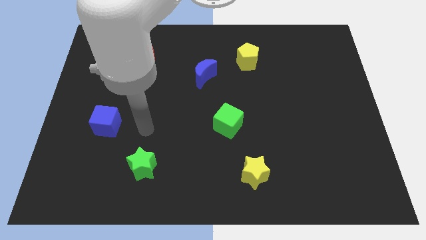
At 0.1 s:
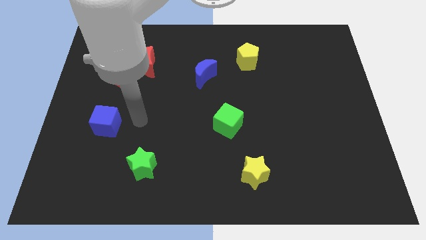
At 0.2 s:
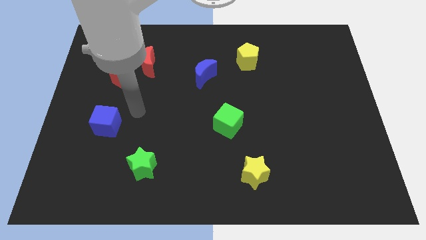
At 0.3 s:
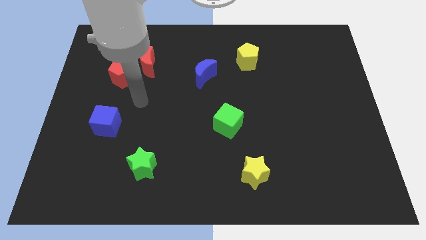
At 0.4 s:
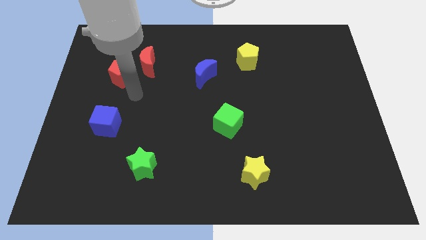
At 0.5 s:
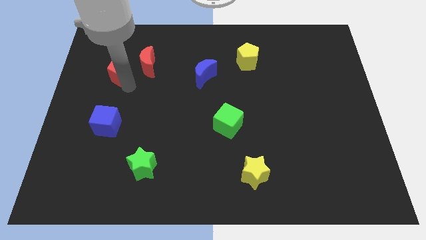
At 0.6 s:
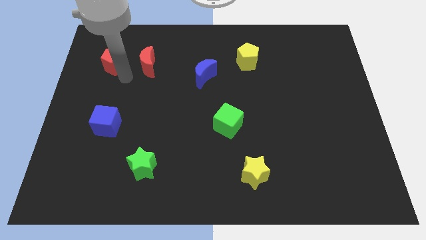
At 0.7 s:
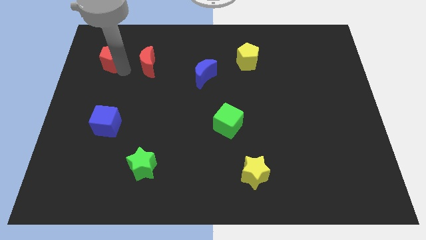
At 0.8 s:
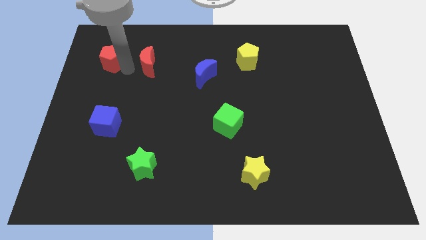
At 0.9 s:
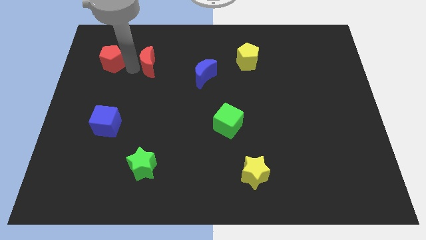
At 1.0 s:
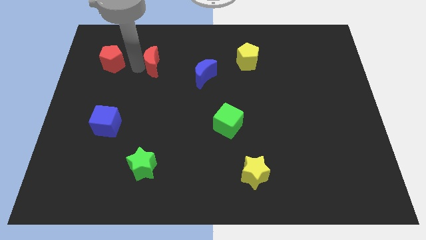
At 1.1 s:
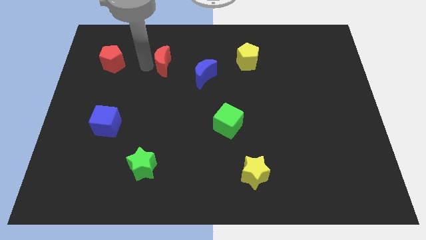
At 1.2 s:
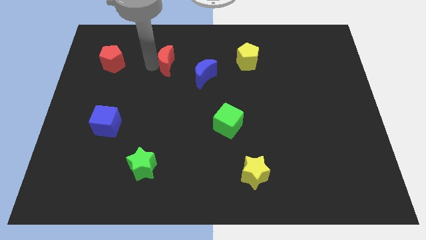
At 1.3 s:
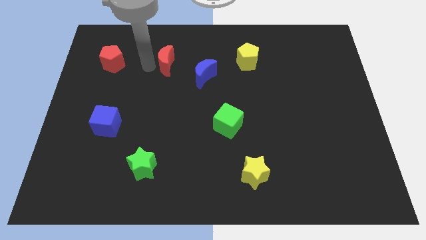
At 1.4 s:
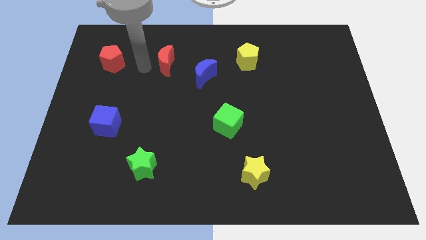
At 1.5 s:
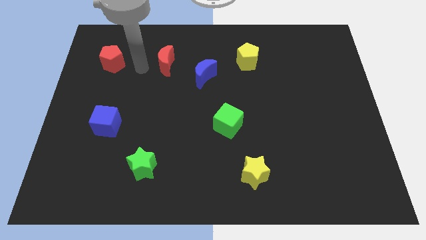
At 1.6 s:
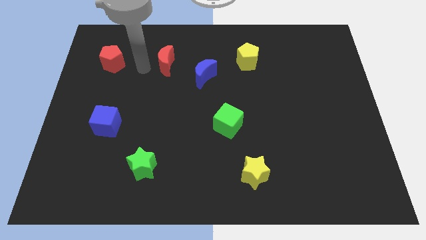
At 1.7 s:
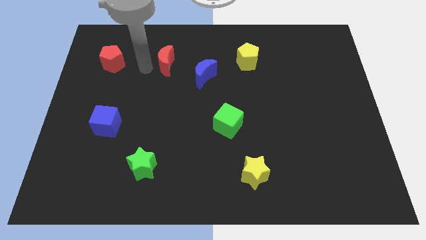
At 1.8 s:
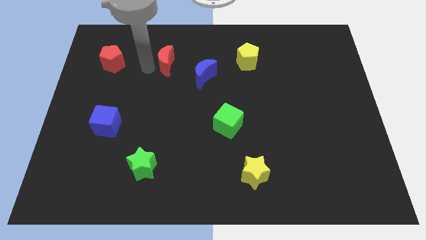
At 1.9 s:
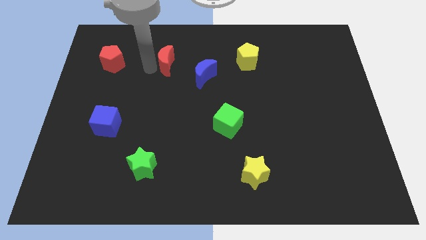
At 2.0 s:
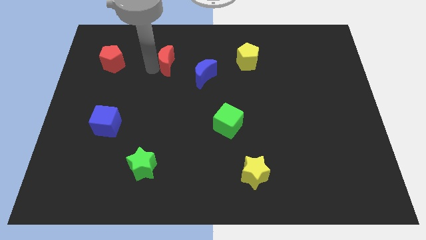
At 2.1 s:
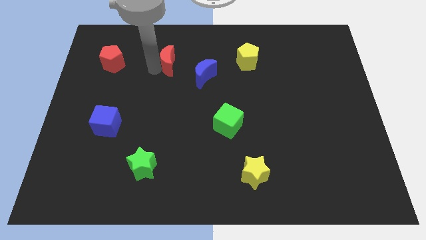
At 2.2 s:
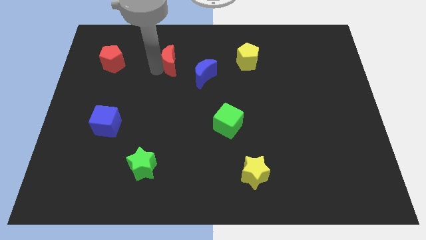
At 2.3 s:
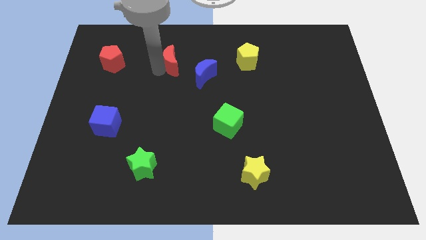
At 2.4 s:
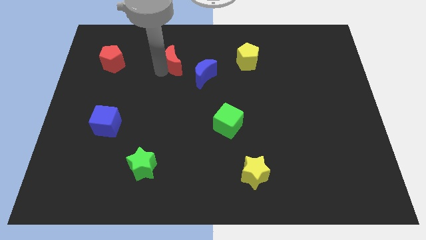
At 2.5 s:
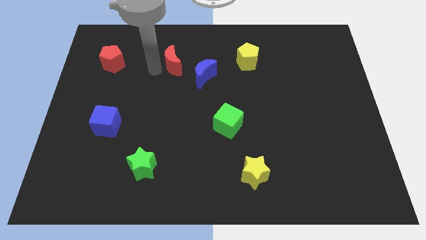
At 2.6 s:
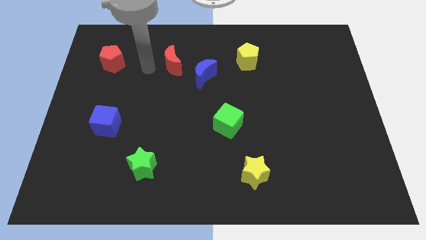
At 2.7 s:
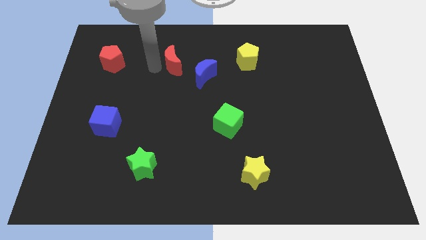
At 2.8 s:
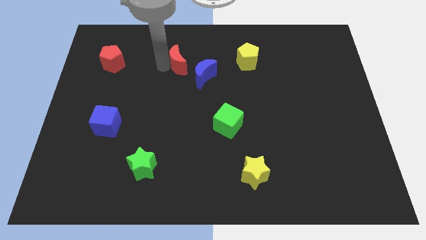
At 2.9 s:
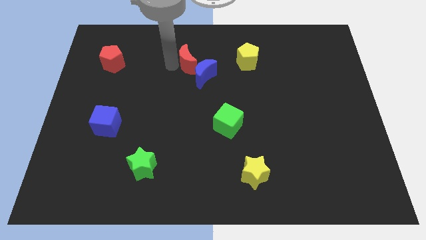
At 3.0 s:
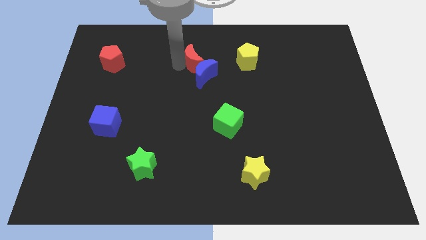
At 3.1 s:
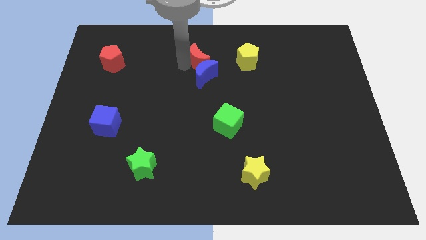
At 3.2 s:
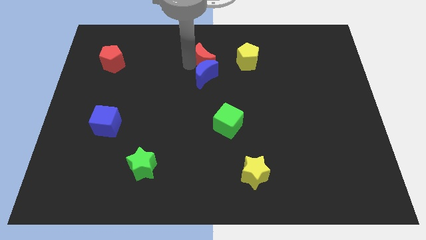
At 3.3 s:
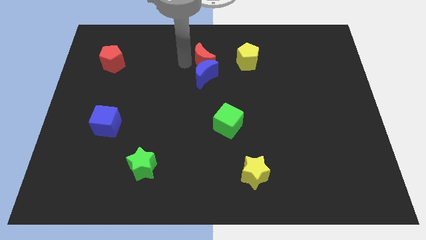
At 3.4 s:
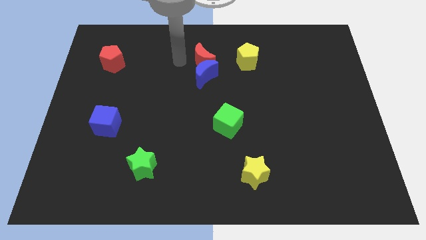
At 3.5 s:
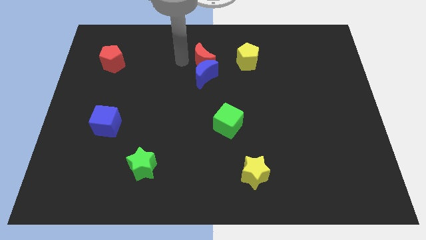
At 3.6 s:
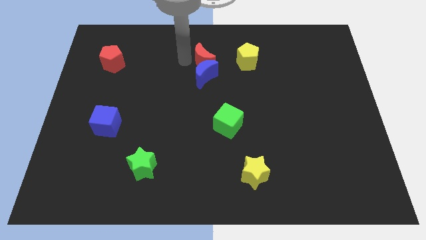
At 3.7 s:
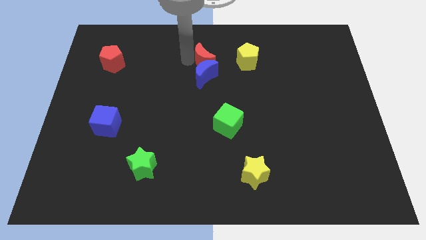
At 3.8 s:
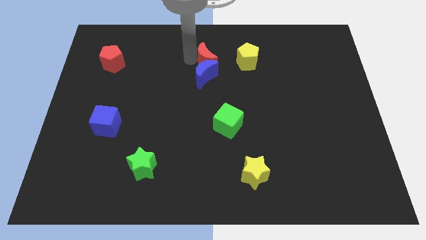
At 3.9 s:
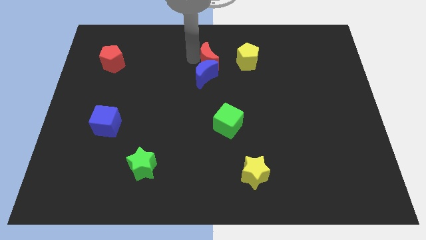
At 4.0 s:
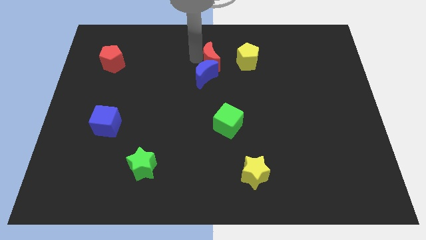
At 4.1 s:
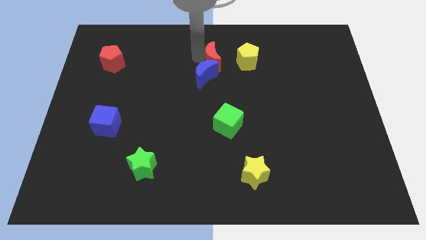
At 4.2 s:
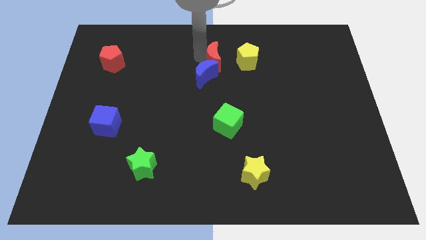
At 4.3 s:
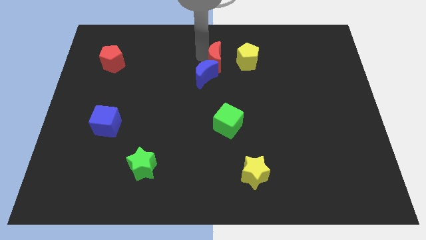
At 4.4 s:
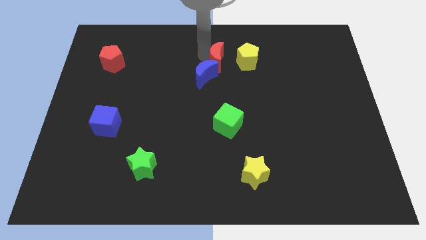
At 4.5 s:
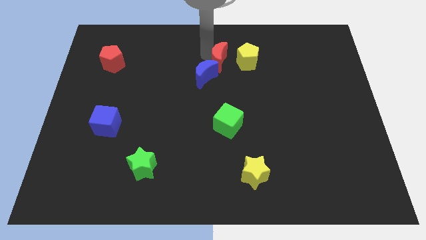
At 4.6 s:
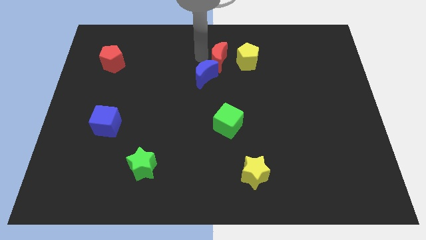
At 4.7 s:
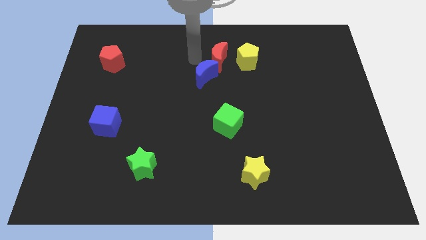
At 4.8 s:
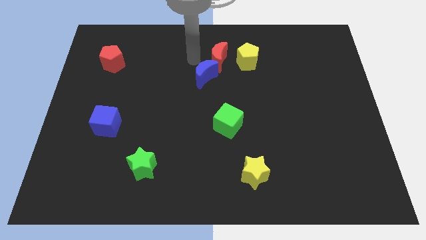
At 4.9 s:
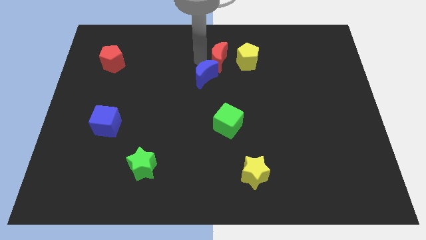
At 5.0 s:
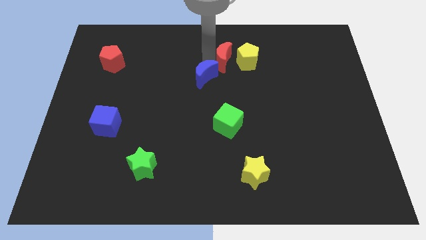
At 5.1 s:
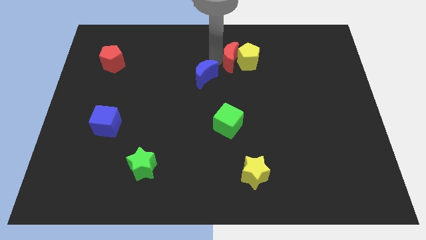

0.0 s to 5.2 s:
move the red moon close to the yellow pentagon

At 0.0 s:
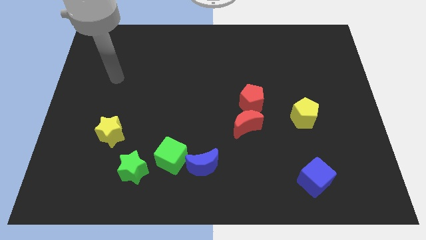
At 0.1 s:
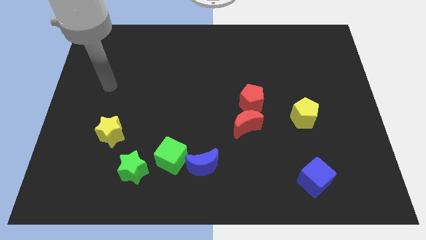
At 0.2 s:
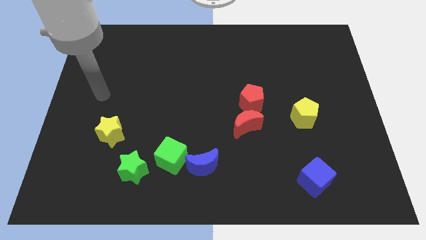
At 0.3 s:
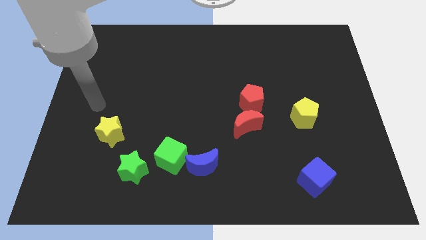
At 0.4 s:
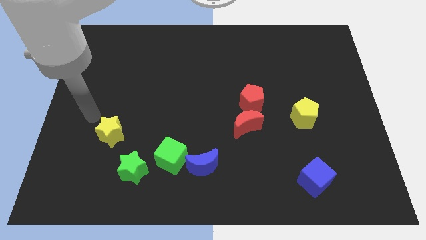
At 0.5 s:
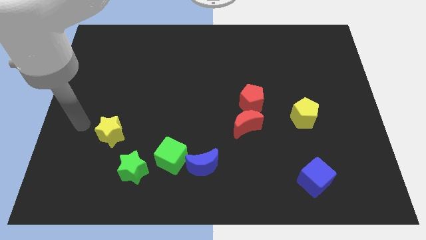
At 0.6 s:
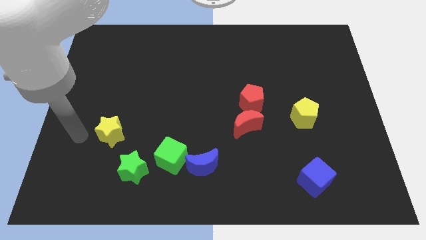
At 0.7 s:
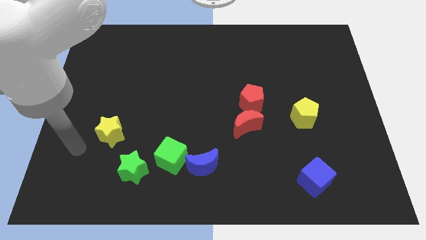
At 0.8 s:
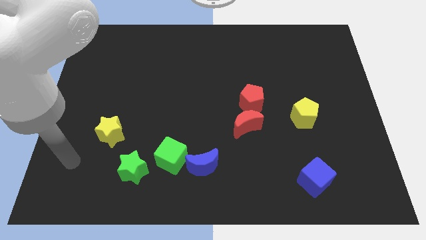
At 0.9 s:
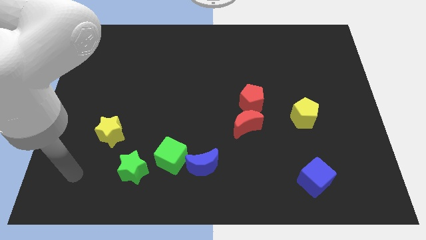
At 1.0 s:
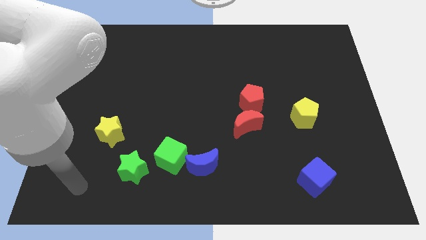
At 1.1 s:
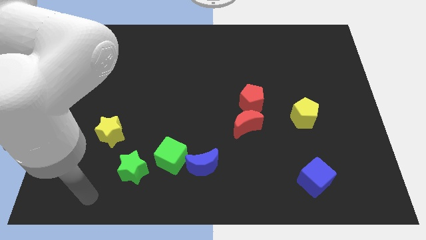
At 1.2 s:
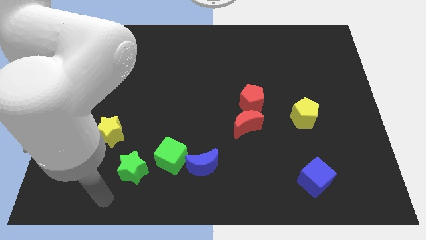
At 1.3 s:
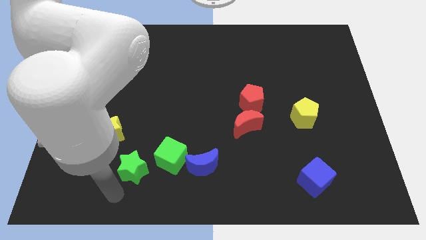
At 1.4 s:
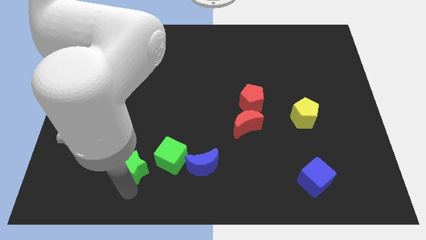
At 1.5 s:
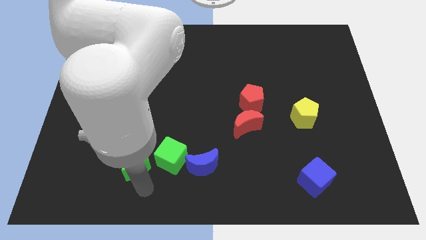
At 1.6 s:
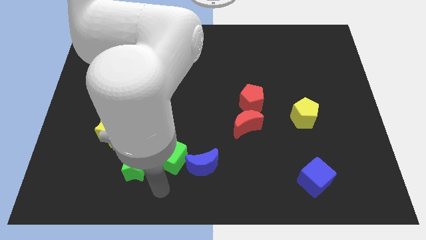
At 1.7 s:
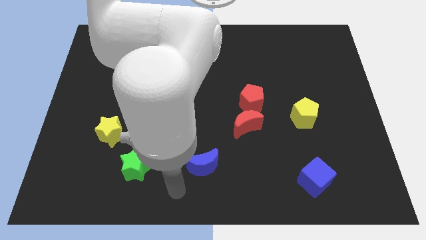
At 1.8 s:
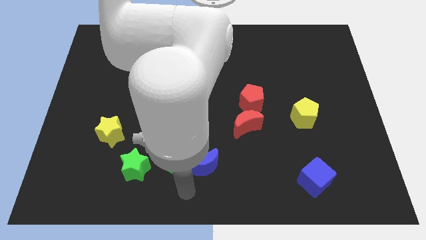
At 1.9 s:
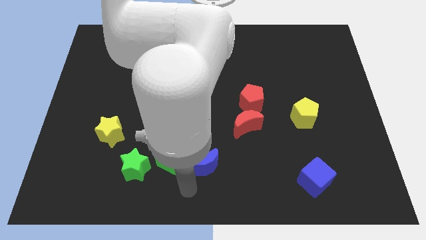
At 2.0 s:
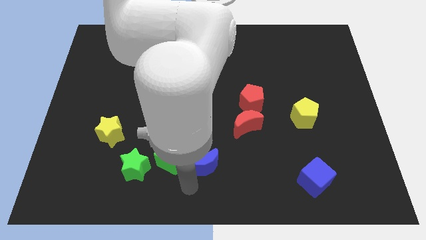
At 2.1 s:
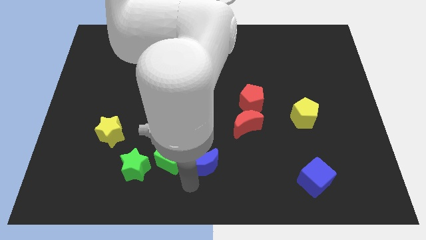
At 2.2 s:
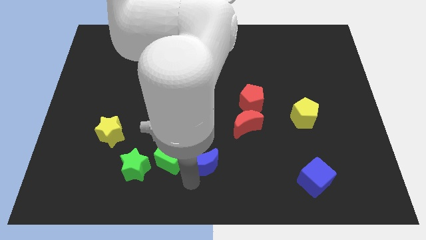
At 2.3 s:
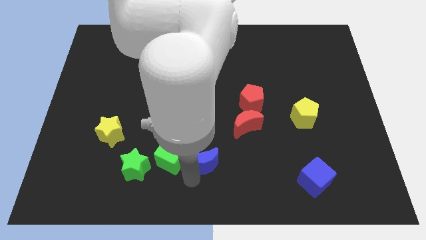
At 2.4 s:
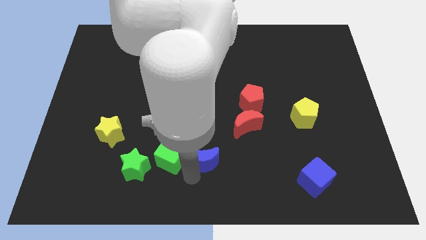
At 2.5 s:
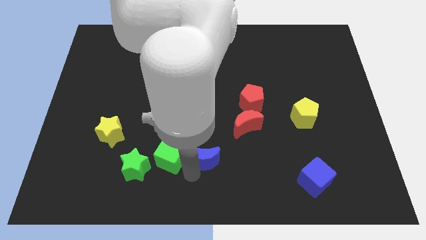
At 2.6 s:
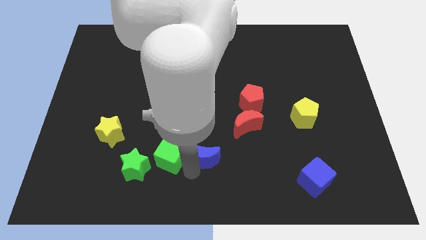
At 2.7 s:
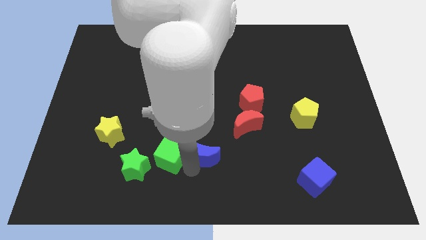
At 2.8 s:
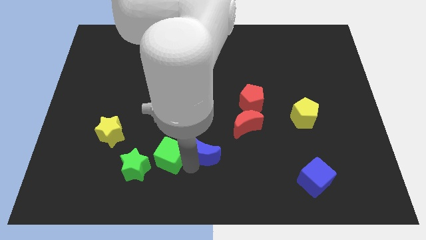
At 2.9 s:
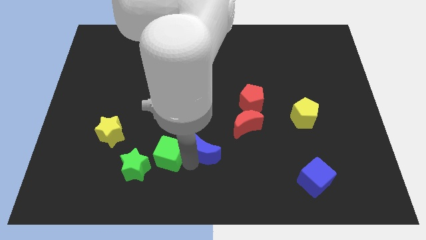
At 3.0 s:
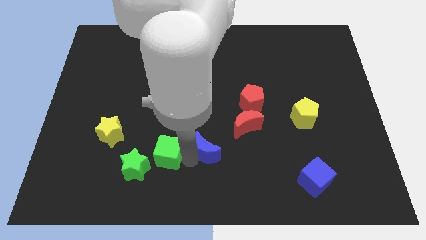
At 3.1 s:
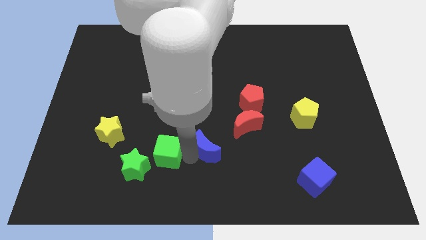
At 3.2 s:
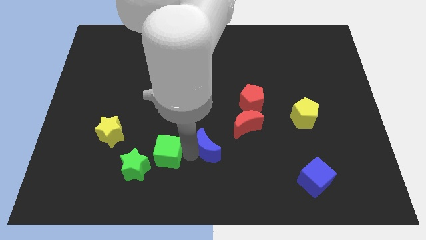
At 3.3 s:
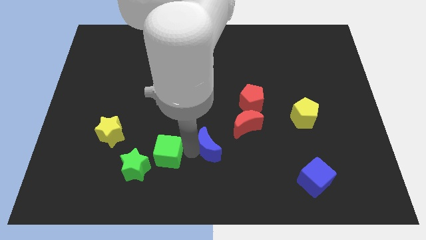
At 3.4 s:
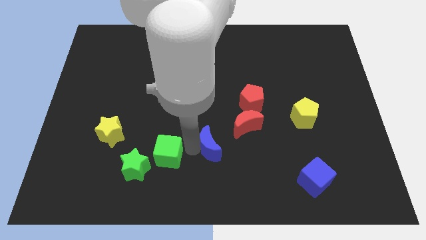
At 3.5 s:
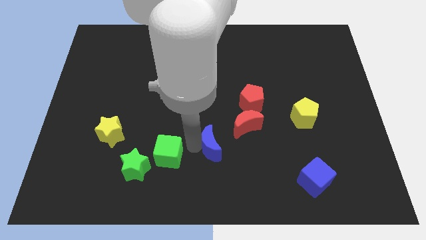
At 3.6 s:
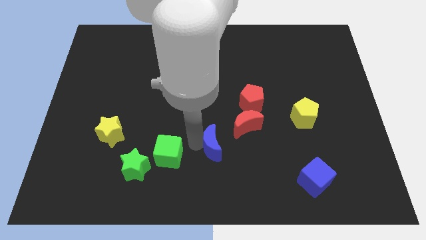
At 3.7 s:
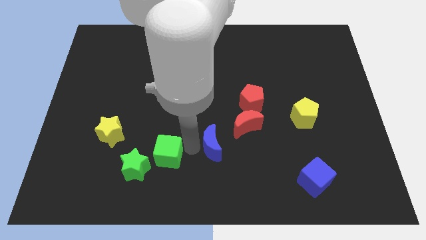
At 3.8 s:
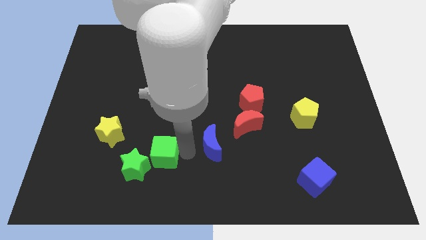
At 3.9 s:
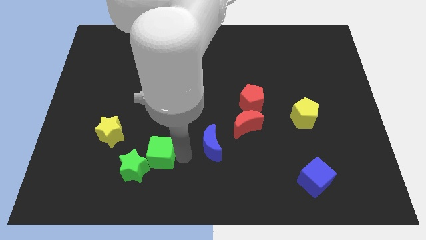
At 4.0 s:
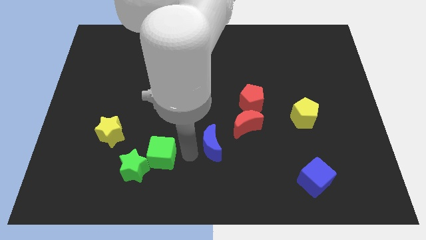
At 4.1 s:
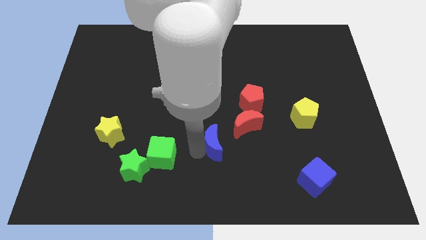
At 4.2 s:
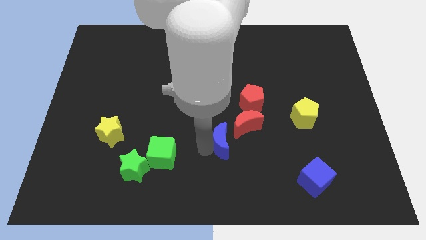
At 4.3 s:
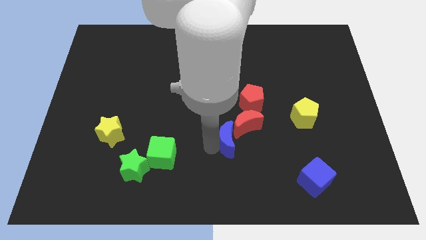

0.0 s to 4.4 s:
put the blue moon to the red moon
